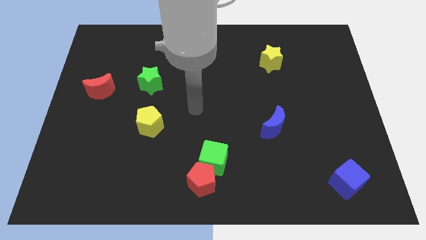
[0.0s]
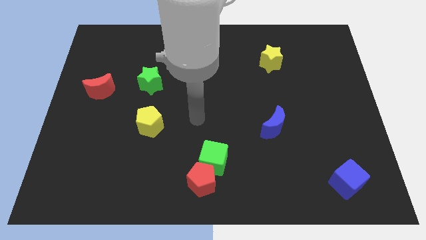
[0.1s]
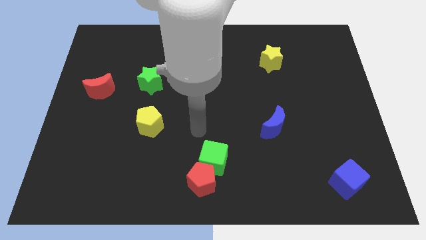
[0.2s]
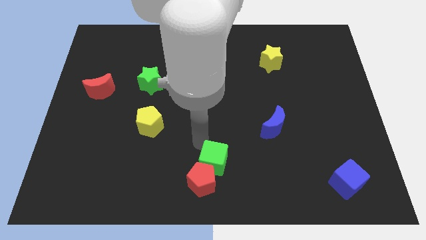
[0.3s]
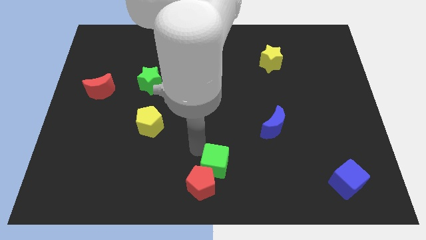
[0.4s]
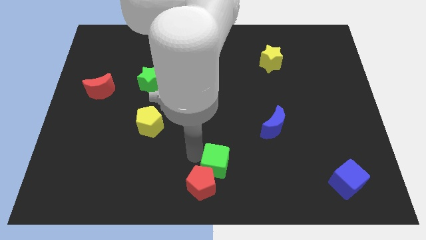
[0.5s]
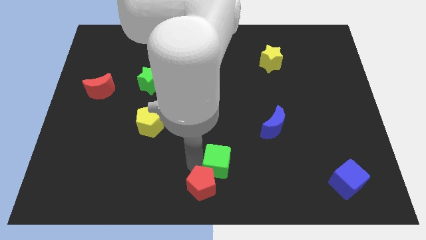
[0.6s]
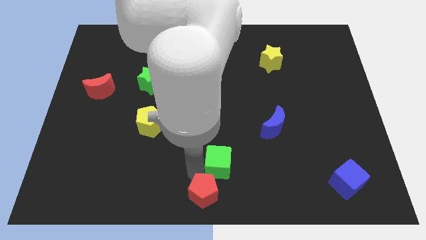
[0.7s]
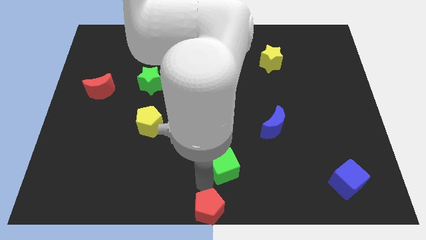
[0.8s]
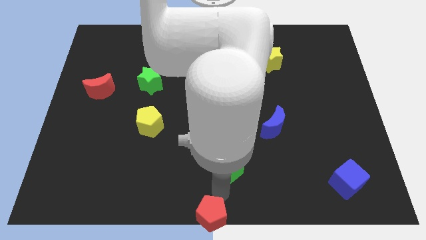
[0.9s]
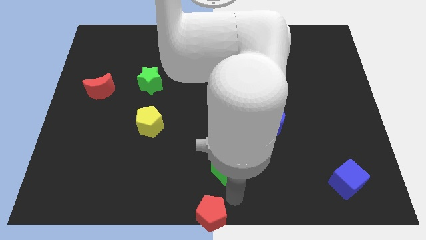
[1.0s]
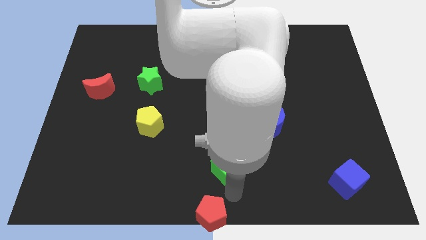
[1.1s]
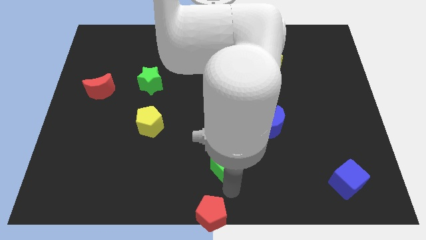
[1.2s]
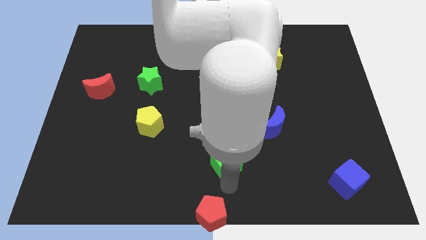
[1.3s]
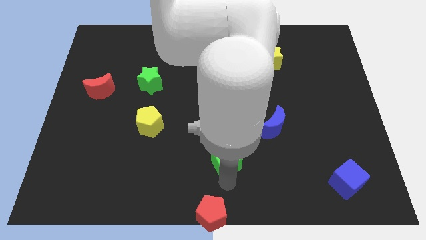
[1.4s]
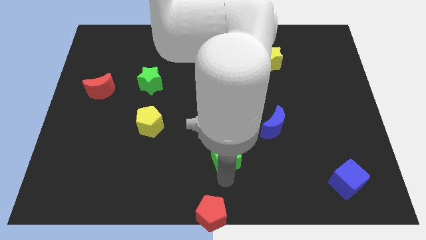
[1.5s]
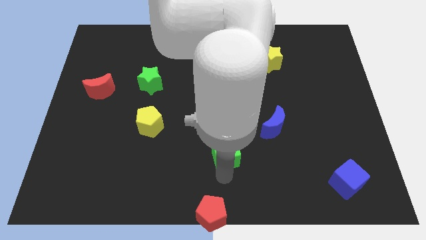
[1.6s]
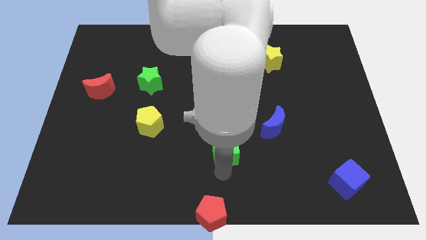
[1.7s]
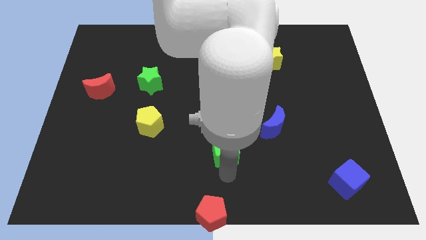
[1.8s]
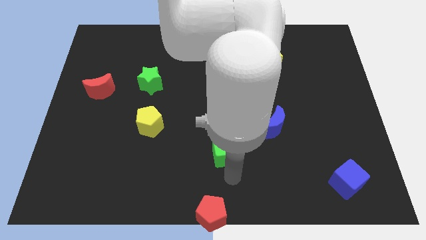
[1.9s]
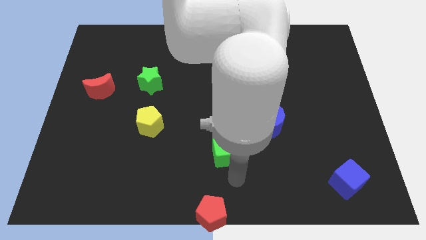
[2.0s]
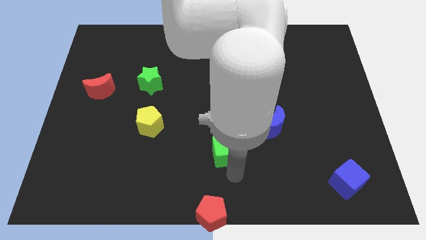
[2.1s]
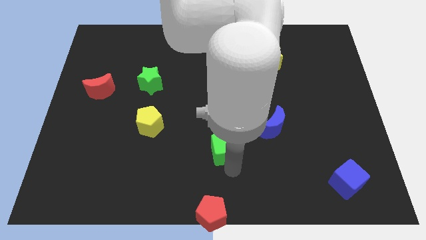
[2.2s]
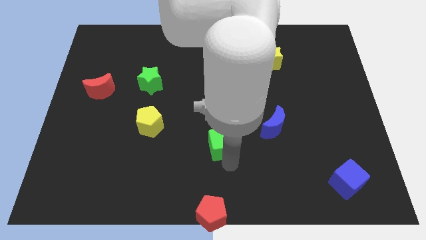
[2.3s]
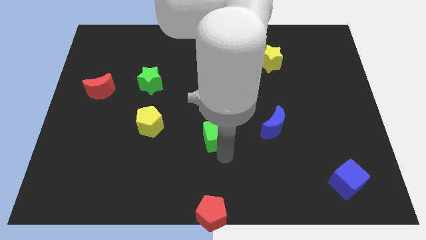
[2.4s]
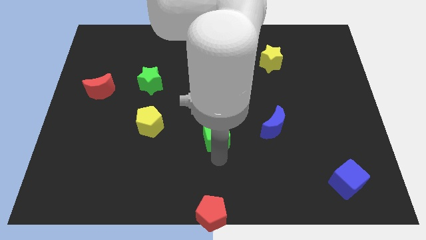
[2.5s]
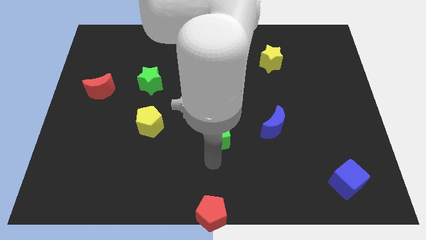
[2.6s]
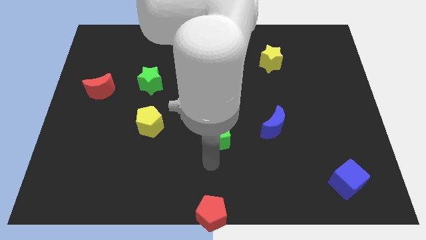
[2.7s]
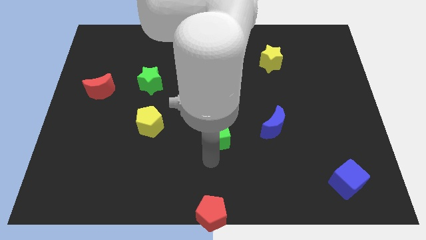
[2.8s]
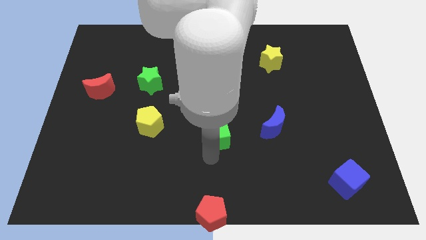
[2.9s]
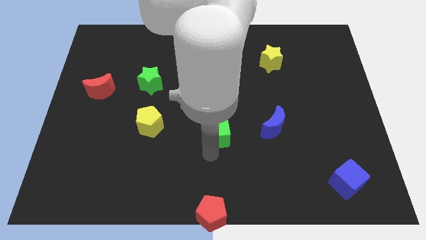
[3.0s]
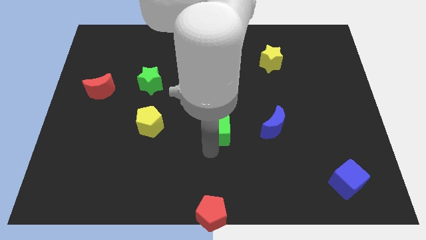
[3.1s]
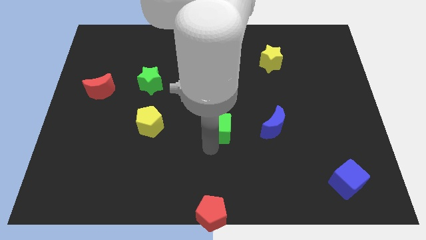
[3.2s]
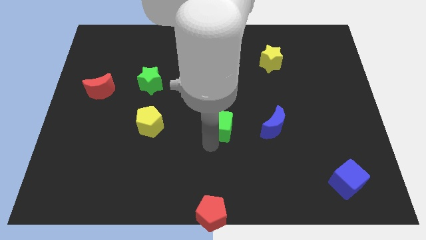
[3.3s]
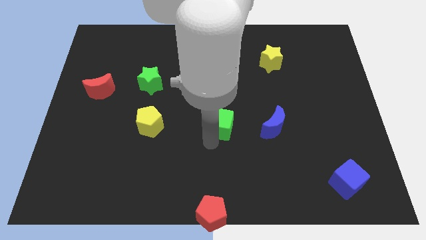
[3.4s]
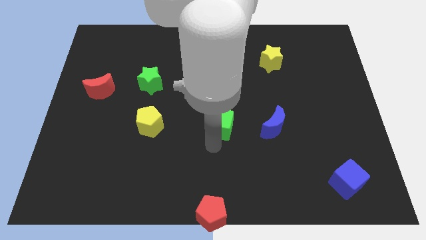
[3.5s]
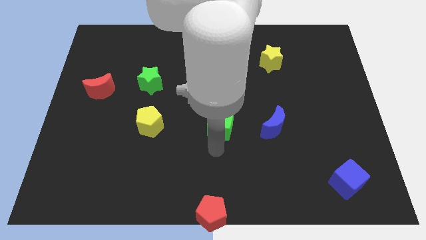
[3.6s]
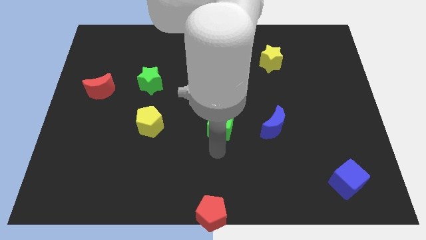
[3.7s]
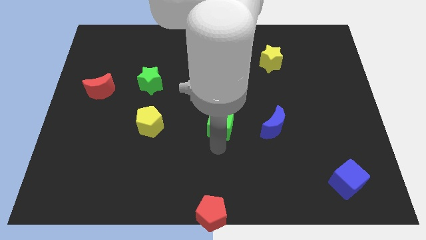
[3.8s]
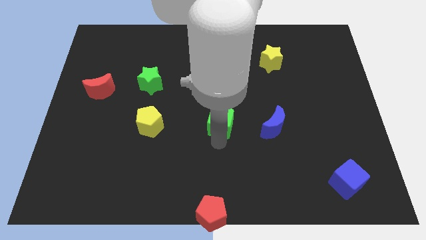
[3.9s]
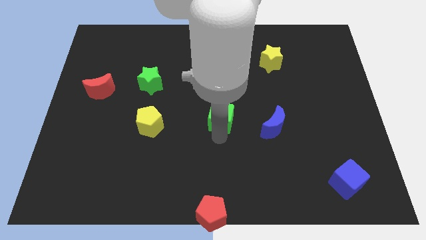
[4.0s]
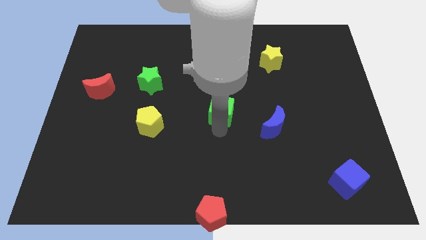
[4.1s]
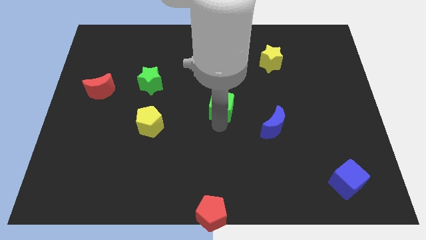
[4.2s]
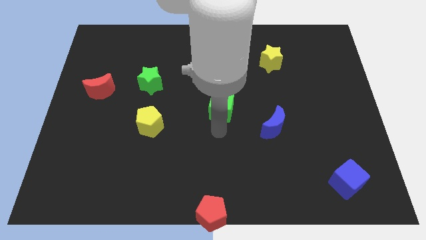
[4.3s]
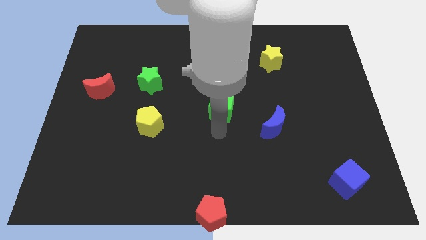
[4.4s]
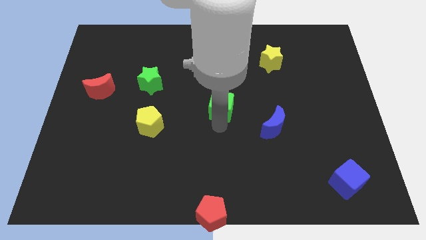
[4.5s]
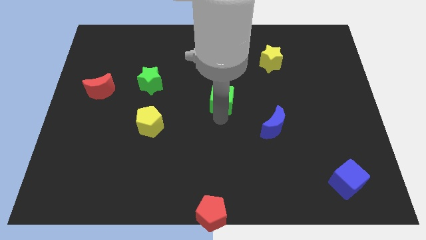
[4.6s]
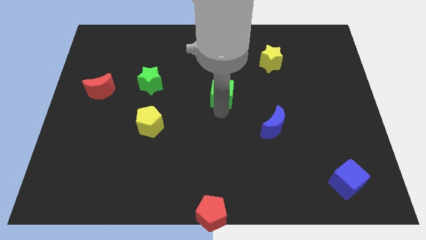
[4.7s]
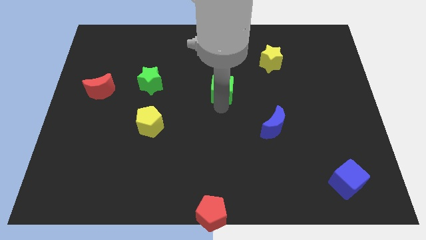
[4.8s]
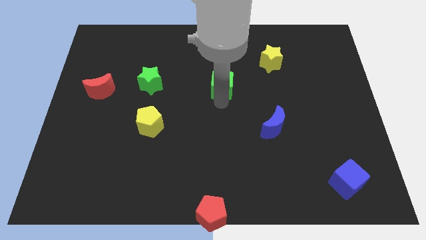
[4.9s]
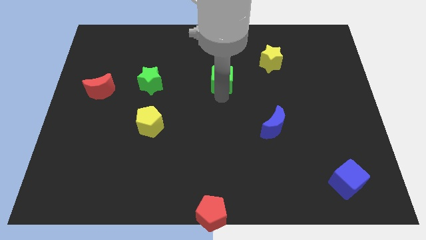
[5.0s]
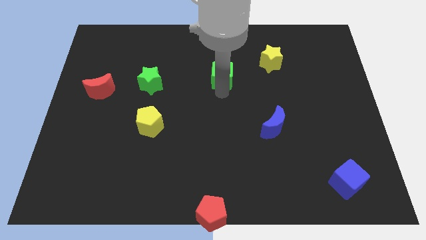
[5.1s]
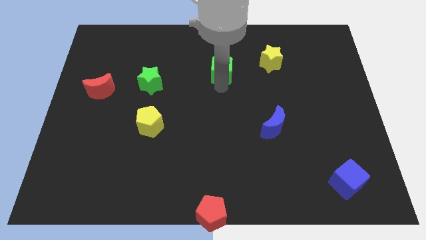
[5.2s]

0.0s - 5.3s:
slide the green cube to the left side of the yellow star

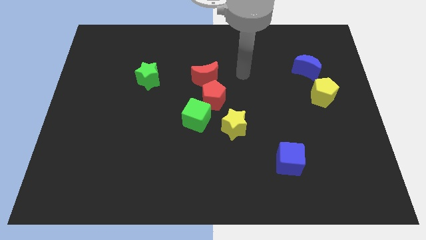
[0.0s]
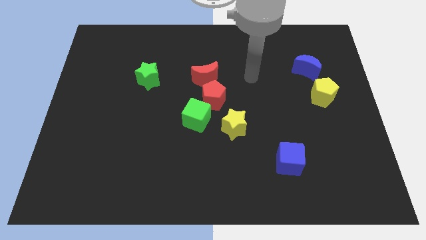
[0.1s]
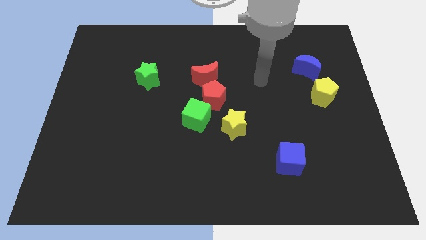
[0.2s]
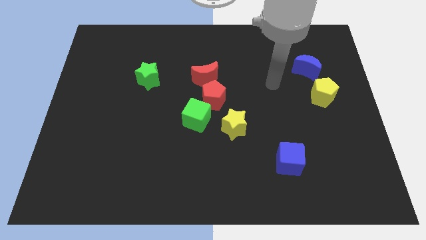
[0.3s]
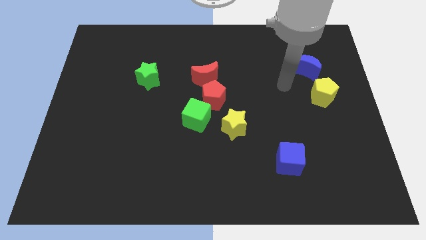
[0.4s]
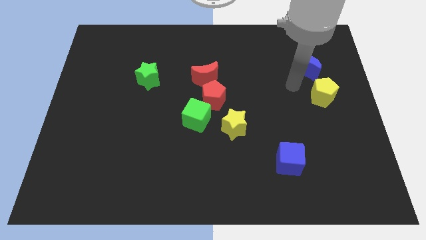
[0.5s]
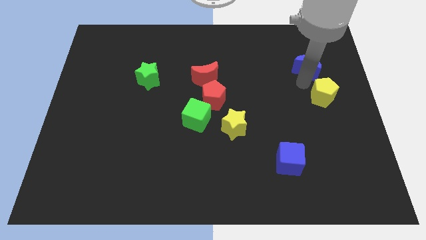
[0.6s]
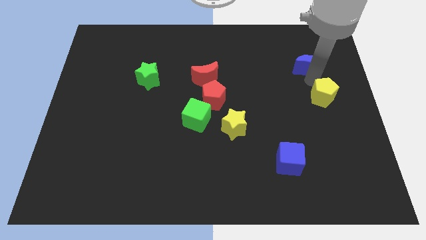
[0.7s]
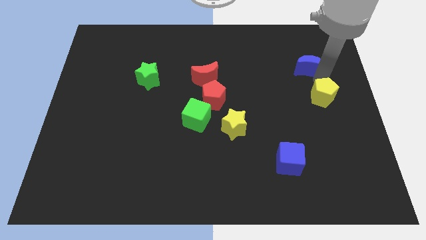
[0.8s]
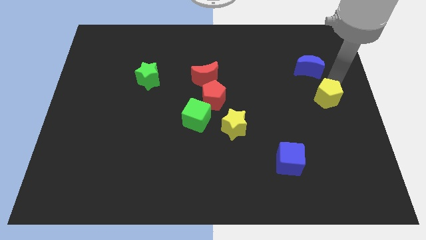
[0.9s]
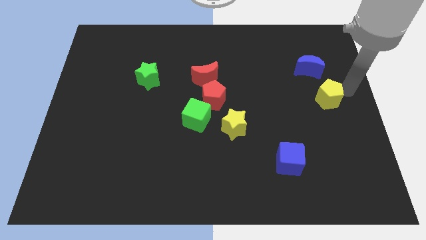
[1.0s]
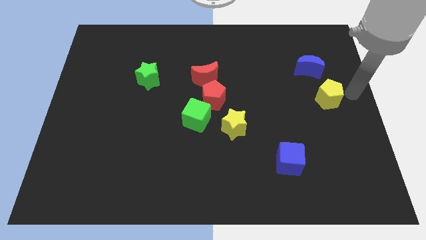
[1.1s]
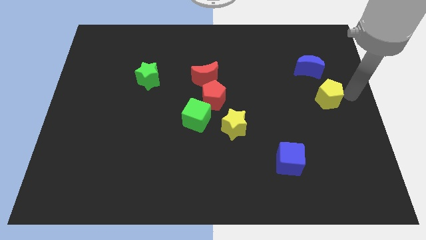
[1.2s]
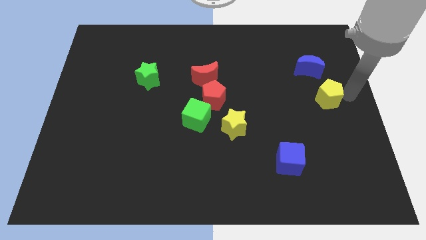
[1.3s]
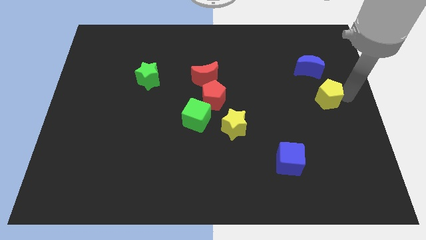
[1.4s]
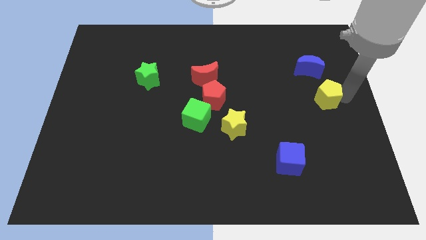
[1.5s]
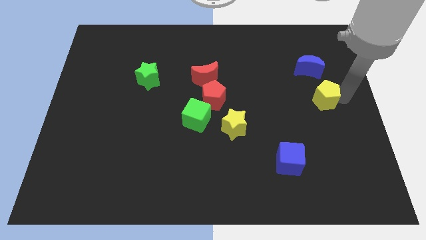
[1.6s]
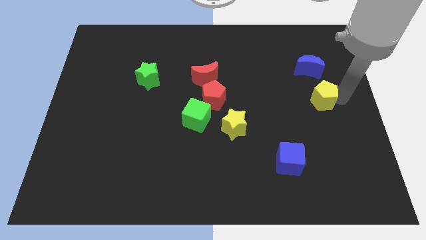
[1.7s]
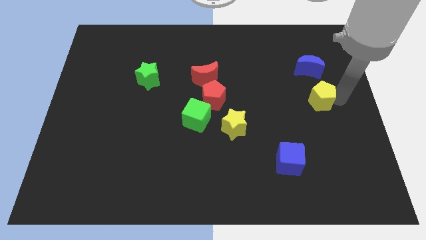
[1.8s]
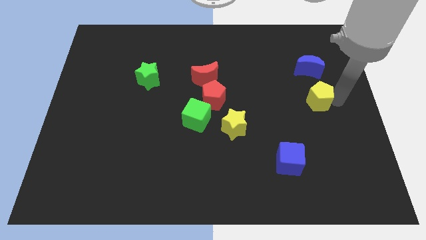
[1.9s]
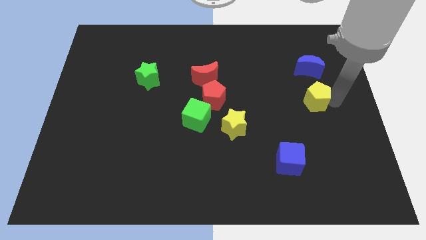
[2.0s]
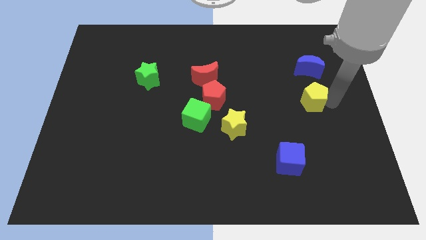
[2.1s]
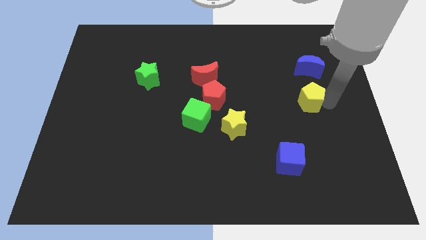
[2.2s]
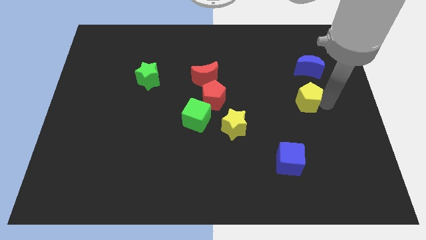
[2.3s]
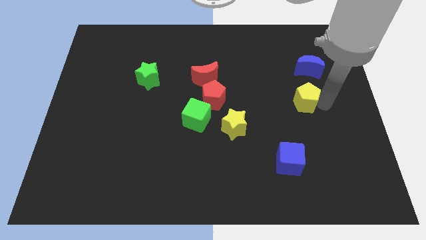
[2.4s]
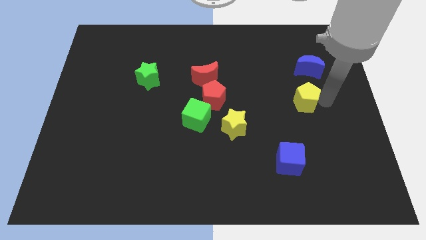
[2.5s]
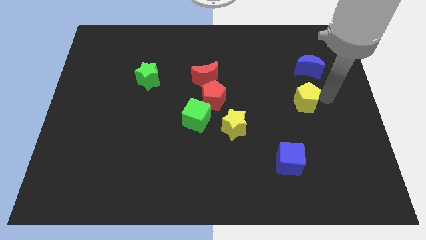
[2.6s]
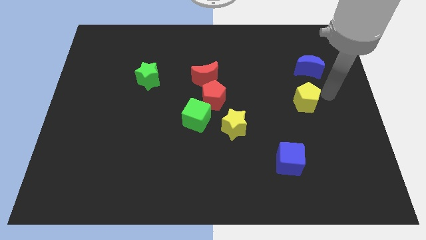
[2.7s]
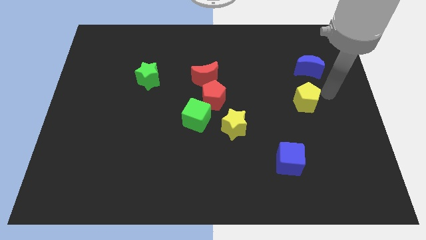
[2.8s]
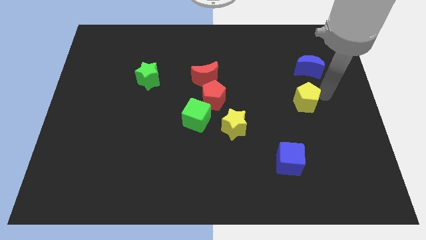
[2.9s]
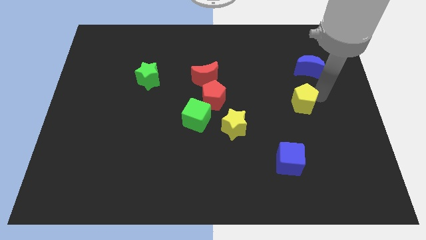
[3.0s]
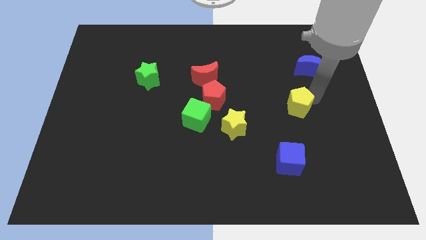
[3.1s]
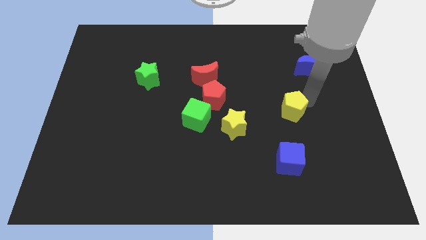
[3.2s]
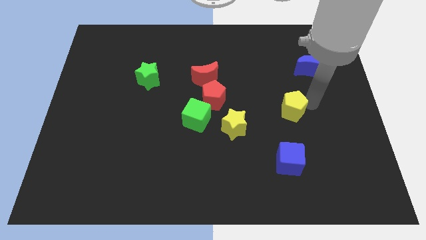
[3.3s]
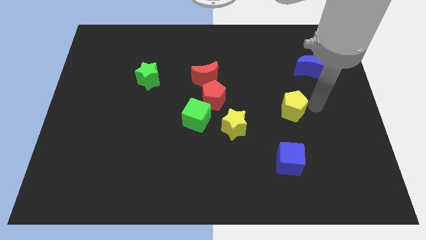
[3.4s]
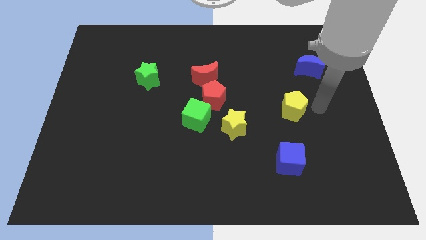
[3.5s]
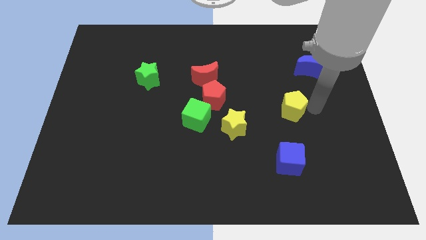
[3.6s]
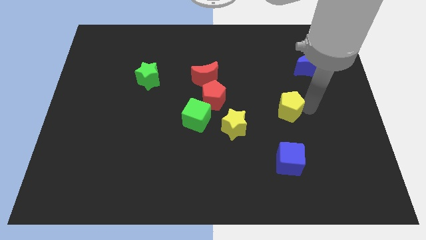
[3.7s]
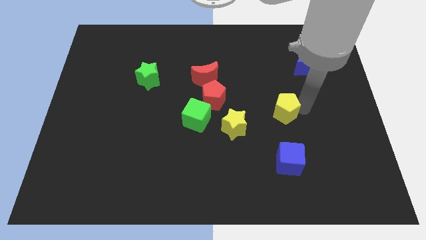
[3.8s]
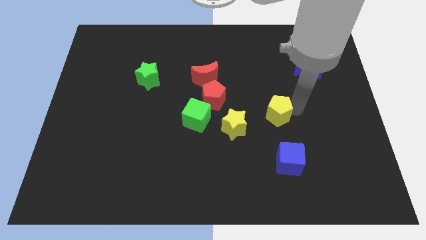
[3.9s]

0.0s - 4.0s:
put the yellow pentagon diagonally up and to the right of the yellow star
